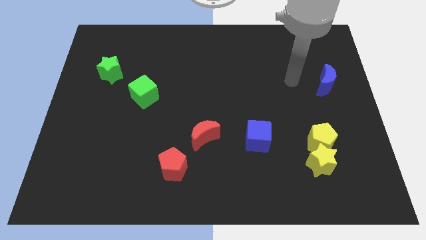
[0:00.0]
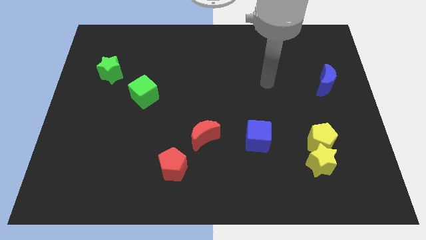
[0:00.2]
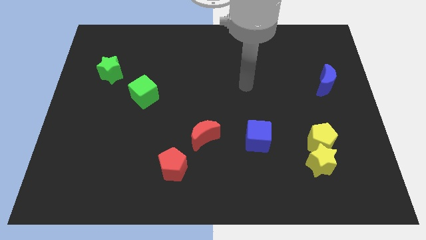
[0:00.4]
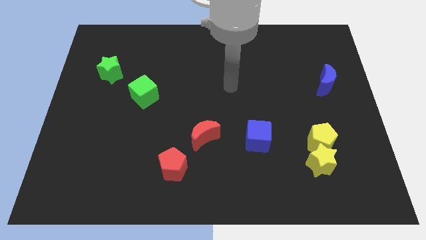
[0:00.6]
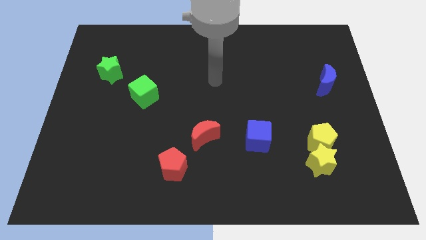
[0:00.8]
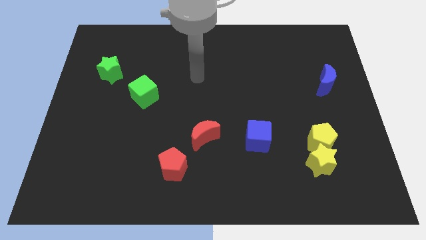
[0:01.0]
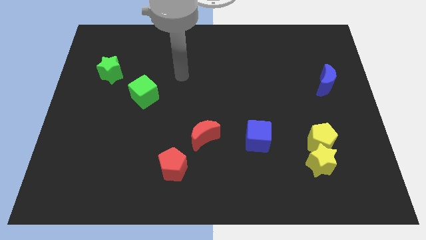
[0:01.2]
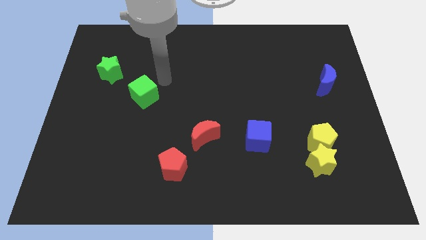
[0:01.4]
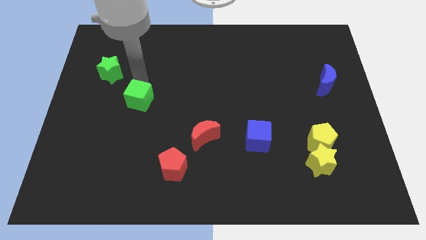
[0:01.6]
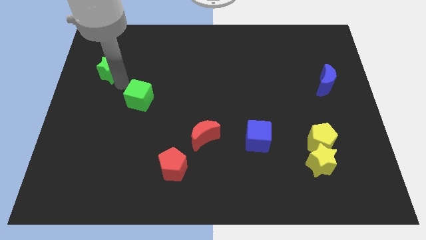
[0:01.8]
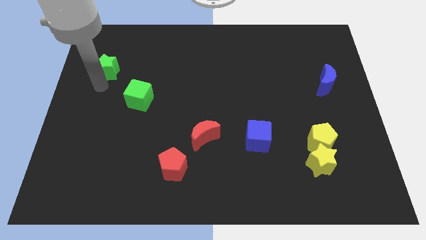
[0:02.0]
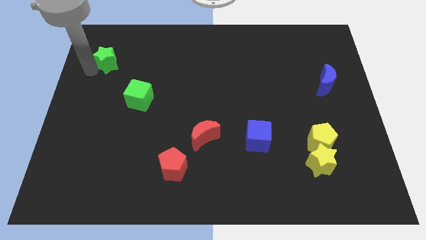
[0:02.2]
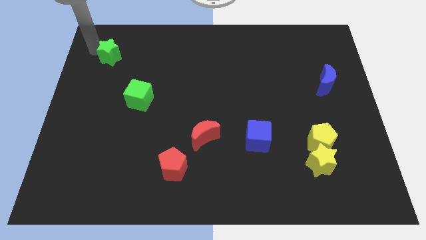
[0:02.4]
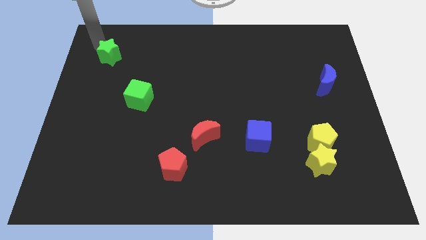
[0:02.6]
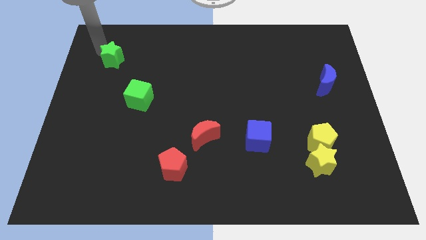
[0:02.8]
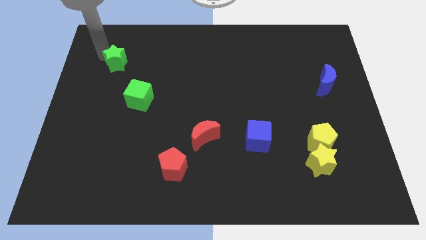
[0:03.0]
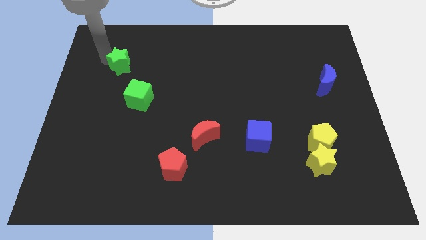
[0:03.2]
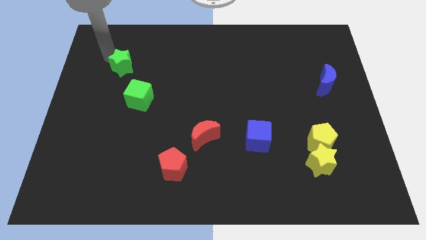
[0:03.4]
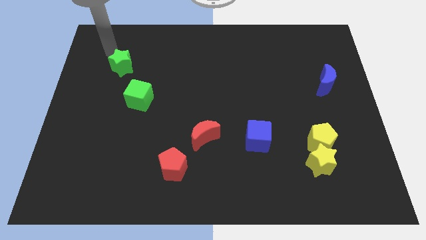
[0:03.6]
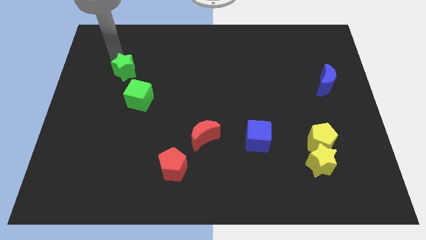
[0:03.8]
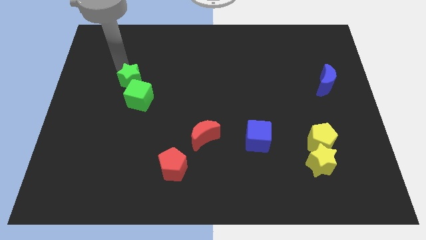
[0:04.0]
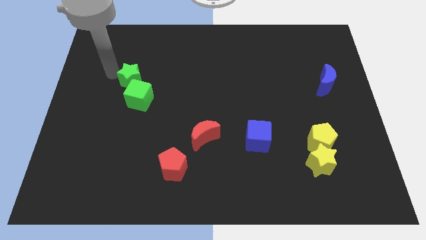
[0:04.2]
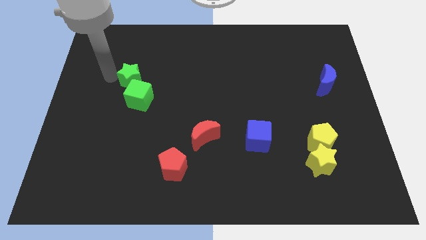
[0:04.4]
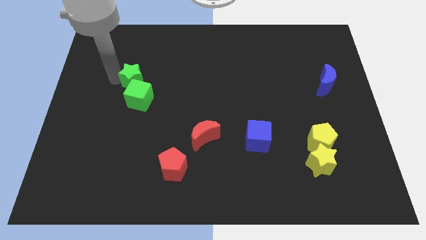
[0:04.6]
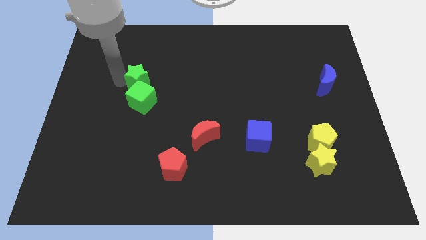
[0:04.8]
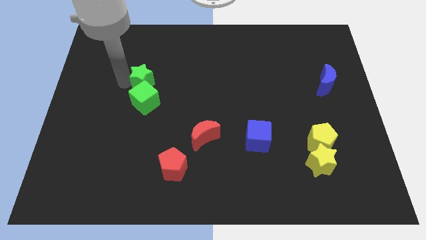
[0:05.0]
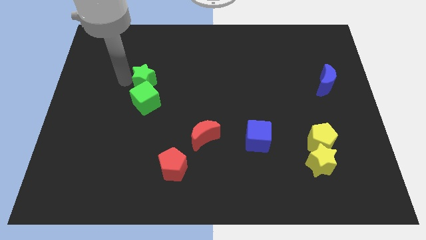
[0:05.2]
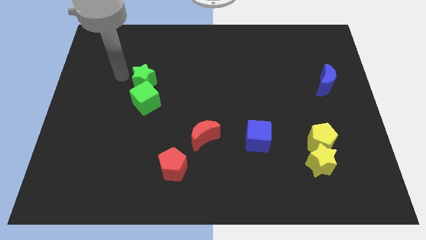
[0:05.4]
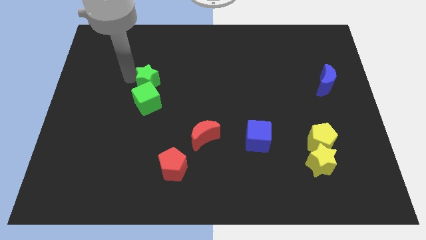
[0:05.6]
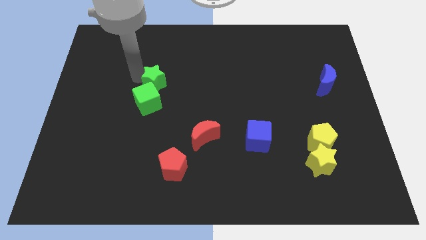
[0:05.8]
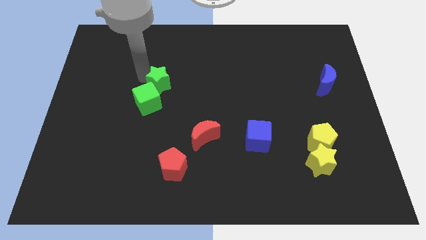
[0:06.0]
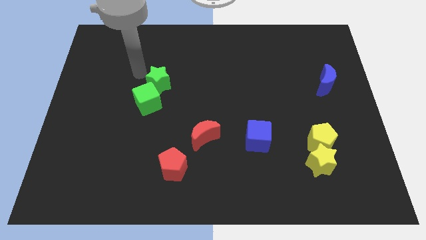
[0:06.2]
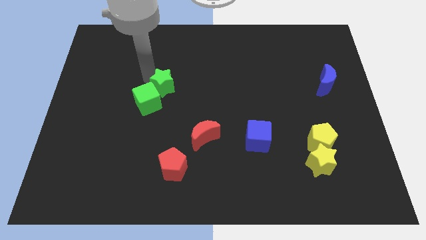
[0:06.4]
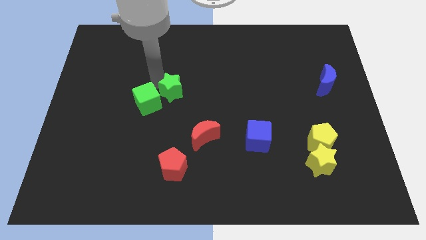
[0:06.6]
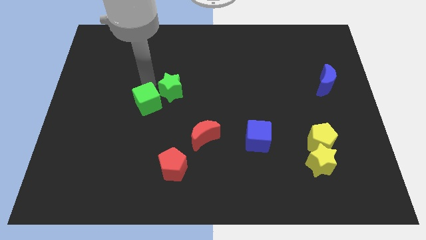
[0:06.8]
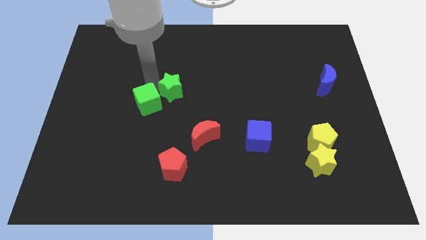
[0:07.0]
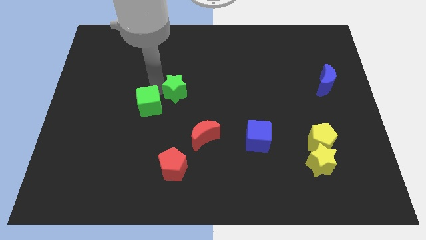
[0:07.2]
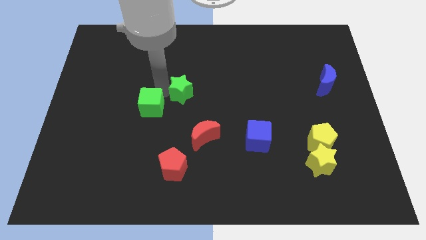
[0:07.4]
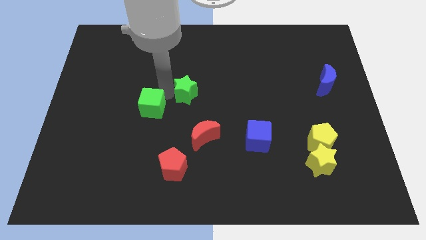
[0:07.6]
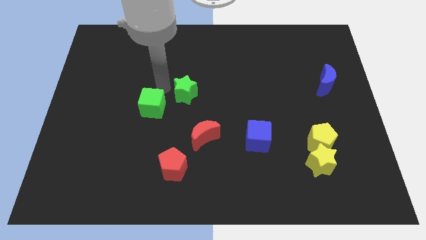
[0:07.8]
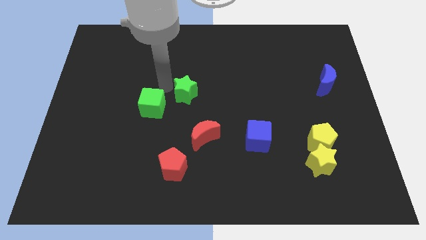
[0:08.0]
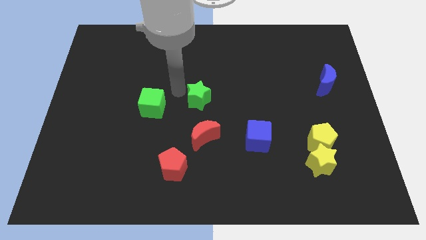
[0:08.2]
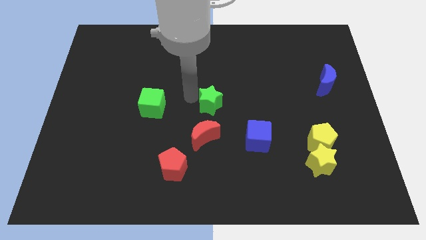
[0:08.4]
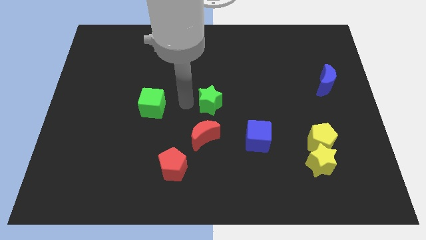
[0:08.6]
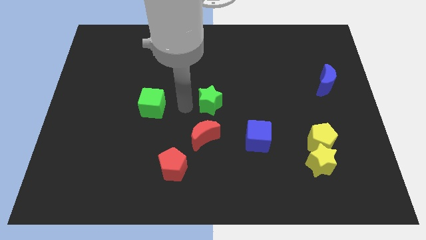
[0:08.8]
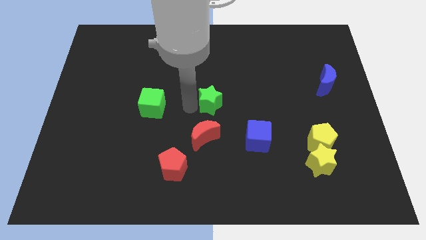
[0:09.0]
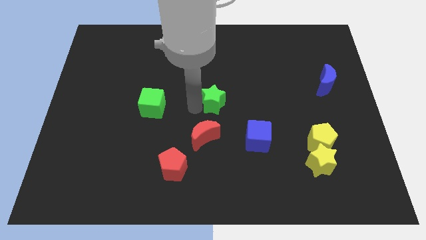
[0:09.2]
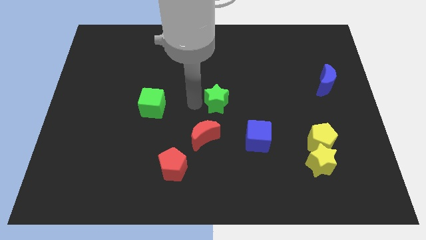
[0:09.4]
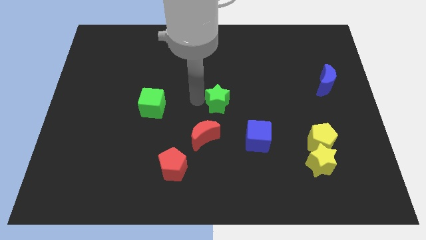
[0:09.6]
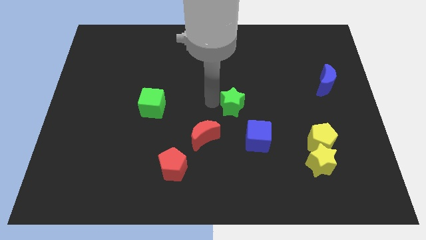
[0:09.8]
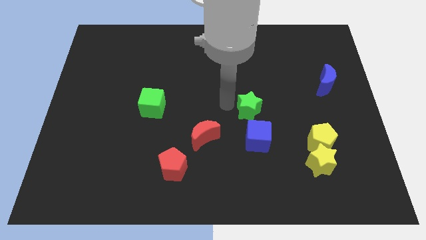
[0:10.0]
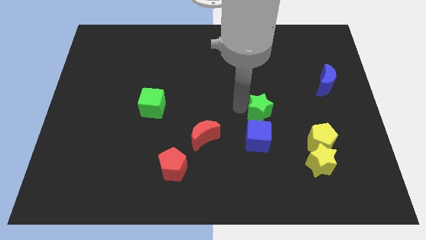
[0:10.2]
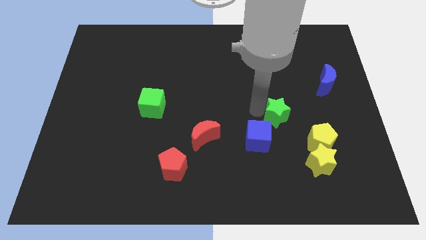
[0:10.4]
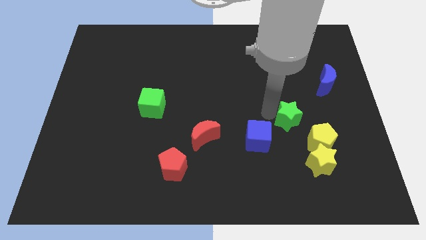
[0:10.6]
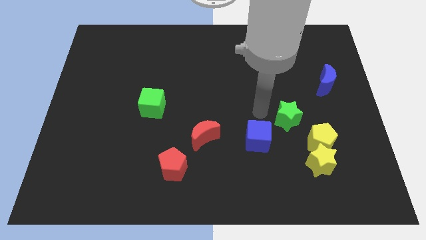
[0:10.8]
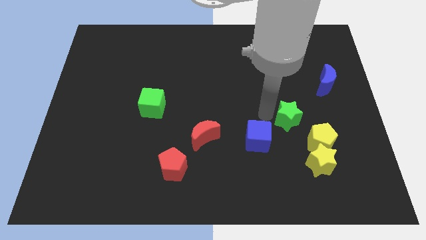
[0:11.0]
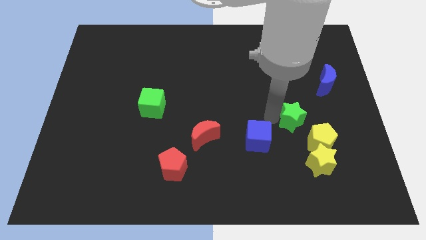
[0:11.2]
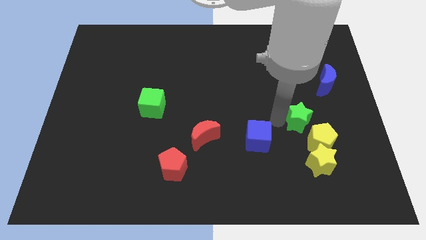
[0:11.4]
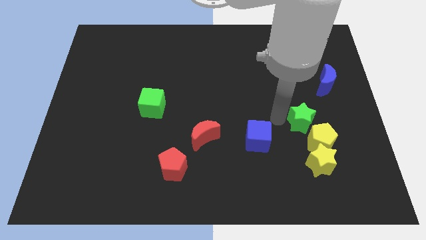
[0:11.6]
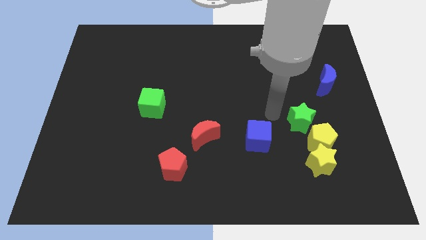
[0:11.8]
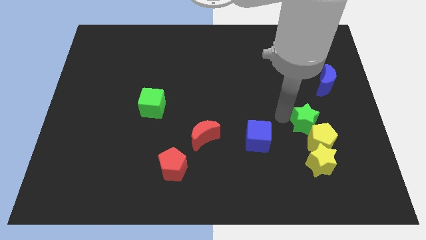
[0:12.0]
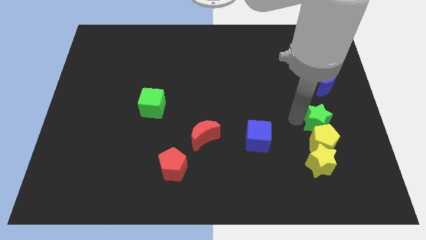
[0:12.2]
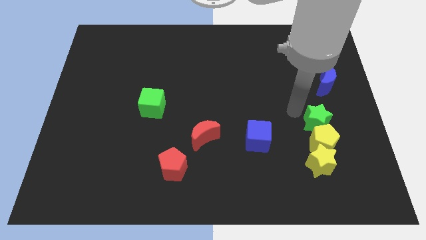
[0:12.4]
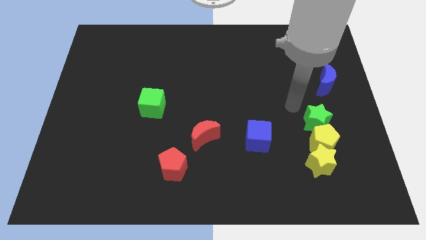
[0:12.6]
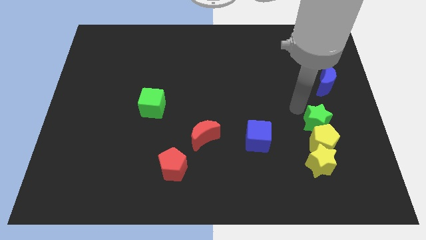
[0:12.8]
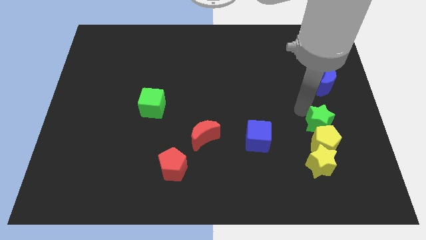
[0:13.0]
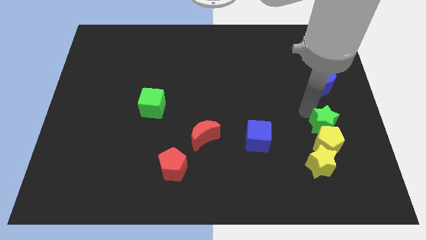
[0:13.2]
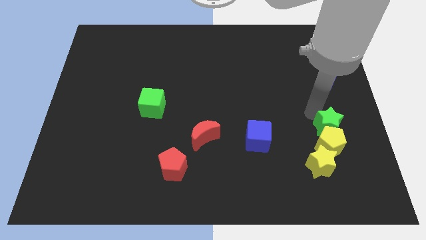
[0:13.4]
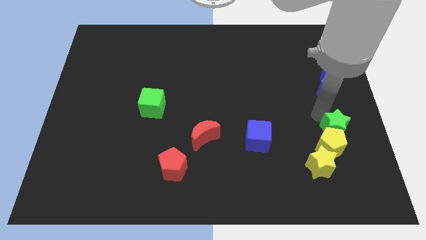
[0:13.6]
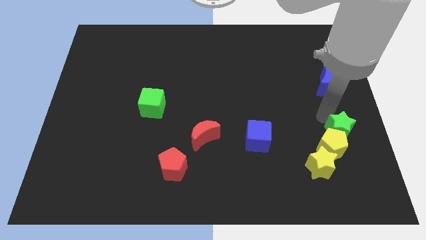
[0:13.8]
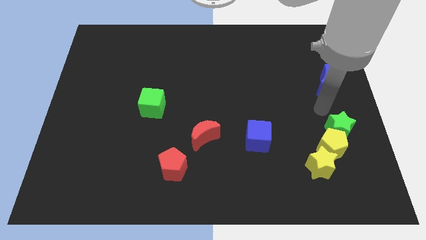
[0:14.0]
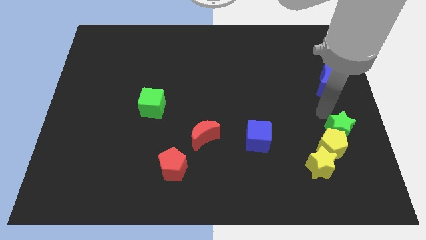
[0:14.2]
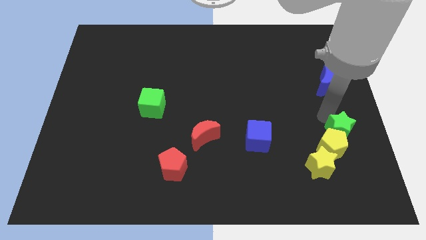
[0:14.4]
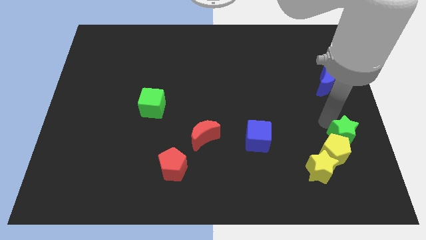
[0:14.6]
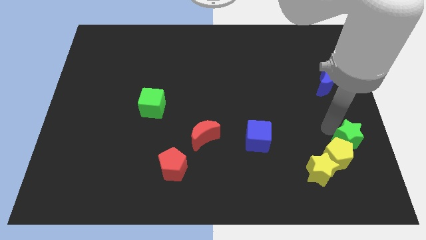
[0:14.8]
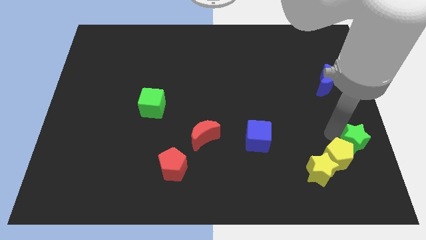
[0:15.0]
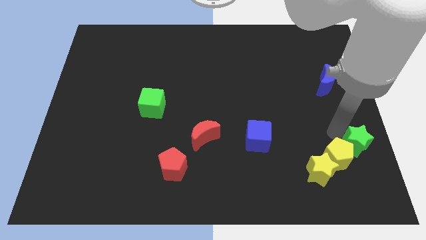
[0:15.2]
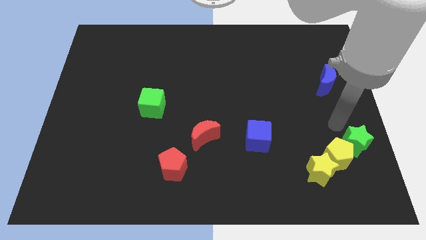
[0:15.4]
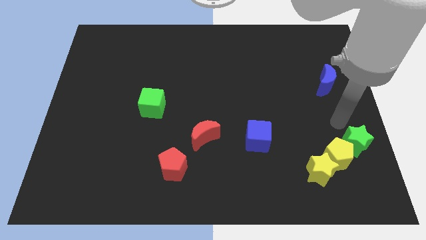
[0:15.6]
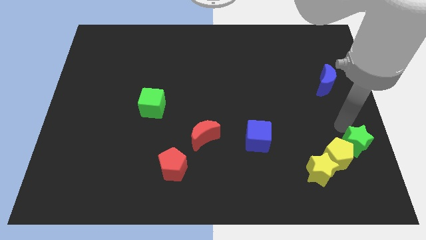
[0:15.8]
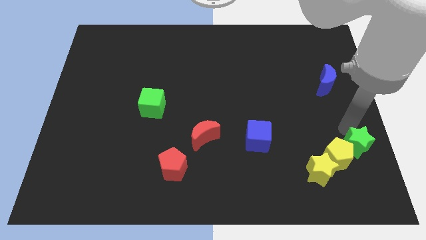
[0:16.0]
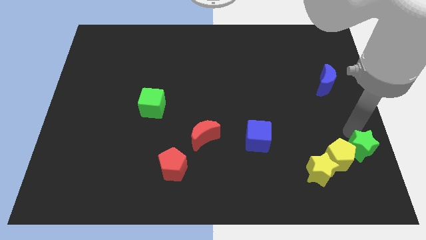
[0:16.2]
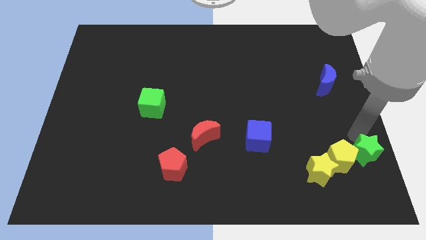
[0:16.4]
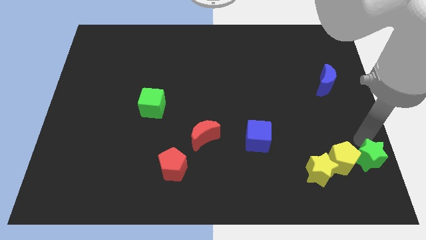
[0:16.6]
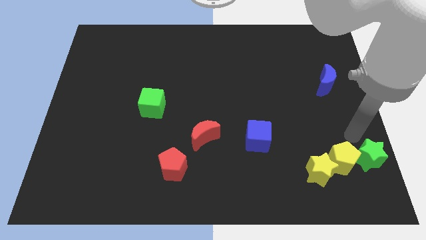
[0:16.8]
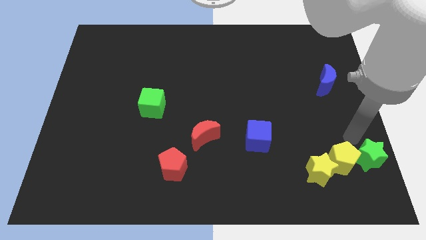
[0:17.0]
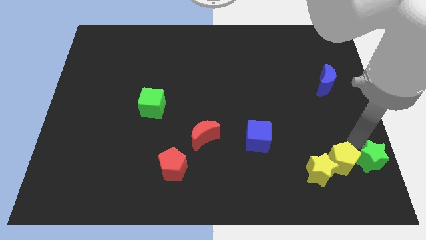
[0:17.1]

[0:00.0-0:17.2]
slide the green star to the bottom right
